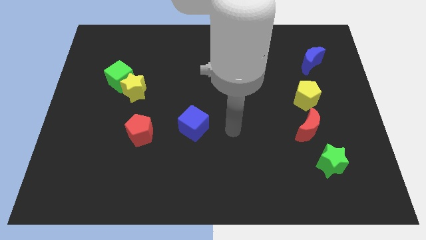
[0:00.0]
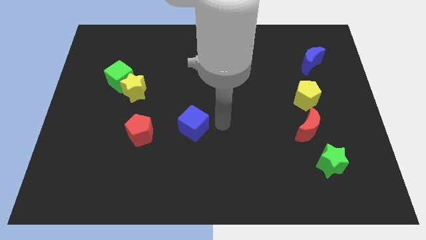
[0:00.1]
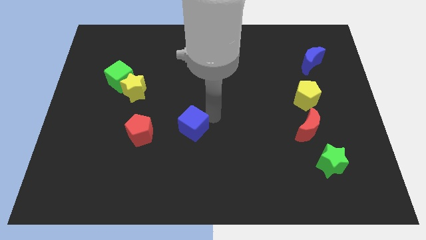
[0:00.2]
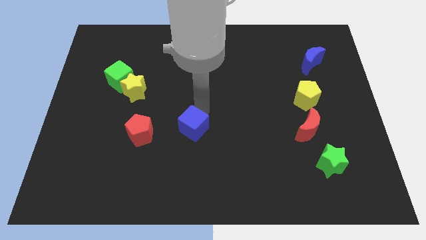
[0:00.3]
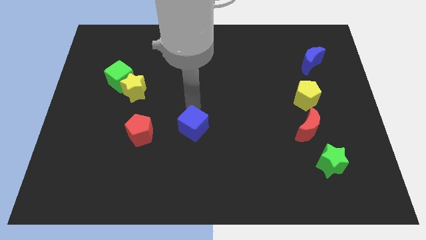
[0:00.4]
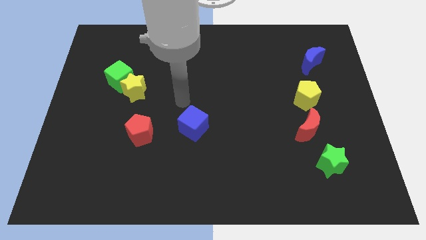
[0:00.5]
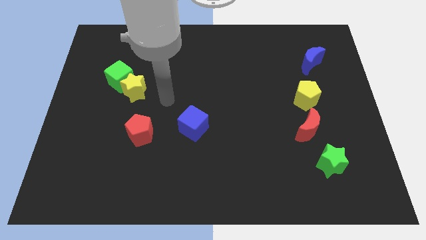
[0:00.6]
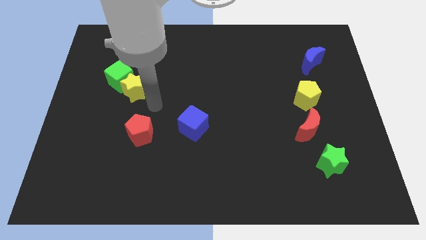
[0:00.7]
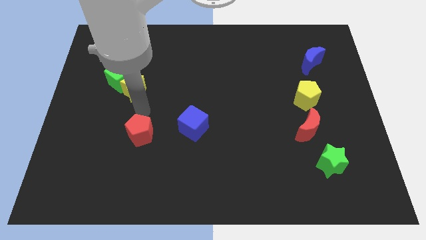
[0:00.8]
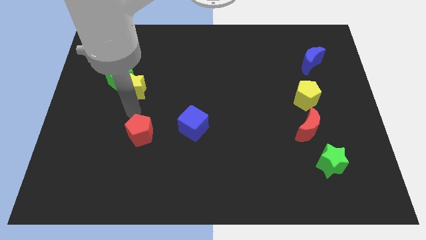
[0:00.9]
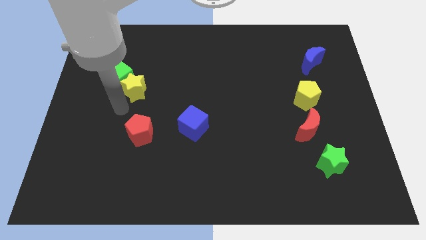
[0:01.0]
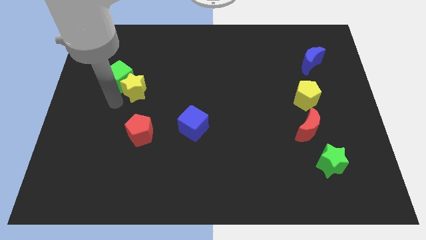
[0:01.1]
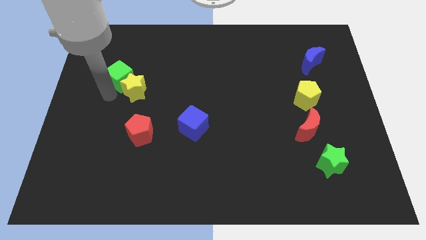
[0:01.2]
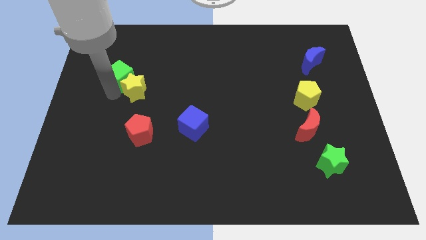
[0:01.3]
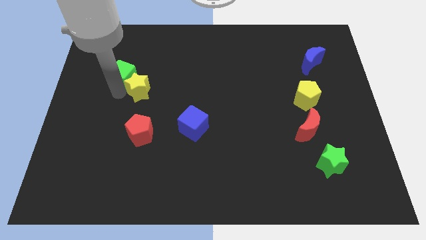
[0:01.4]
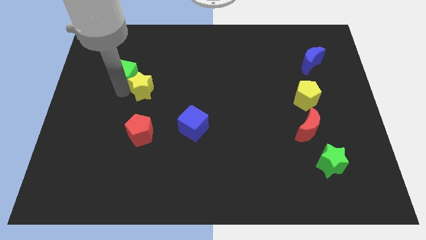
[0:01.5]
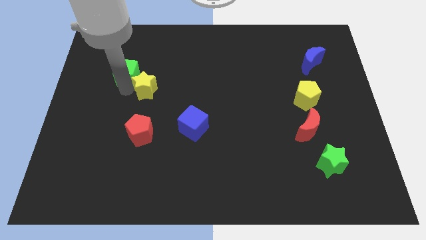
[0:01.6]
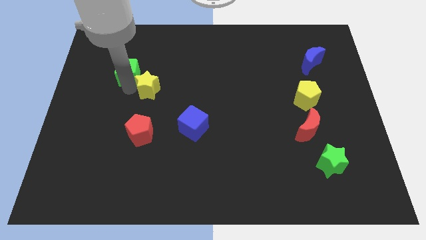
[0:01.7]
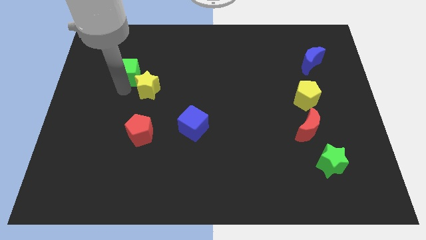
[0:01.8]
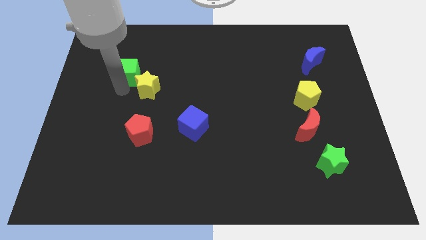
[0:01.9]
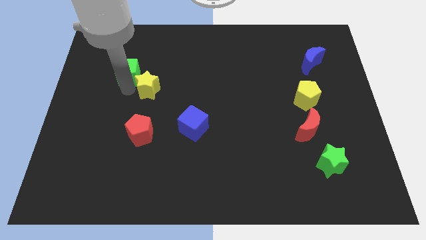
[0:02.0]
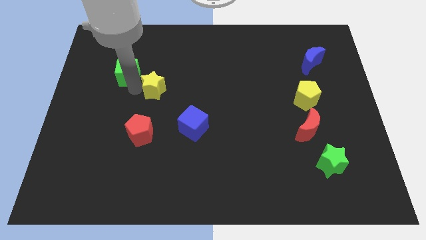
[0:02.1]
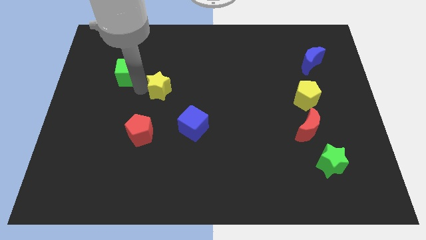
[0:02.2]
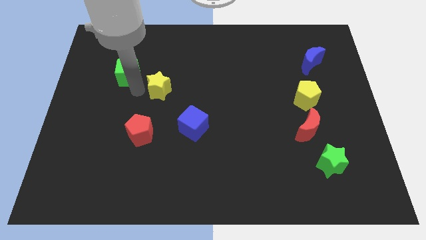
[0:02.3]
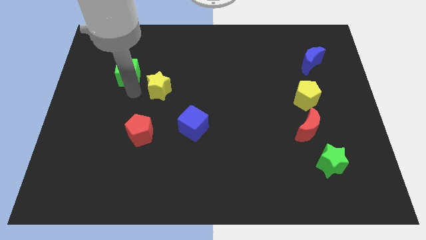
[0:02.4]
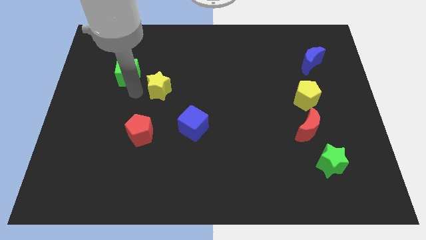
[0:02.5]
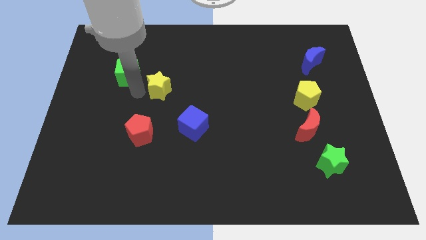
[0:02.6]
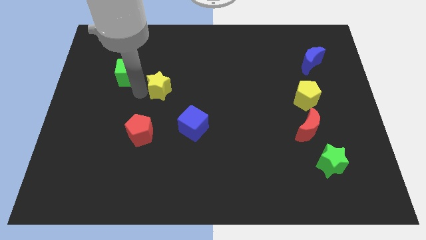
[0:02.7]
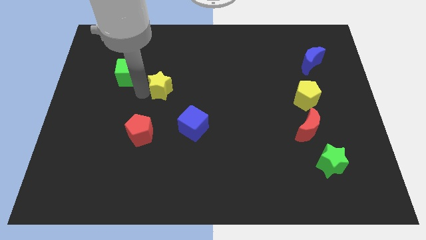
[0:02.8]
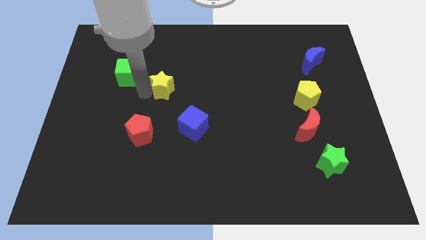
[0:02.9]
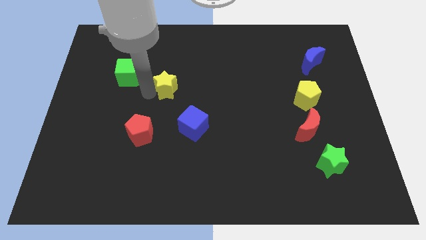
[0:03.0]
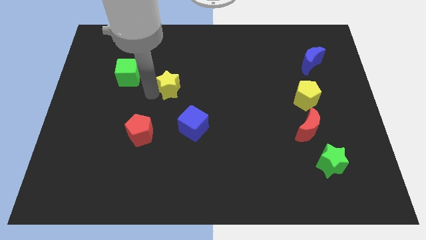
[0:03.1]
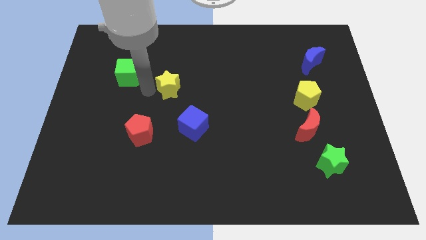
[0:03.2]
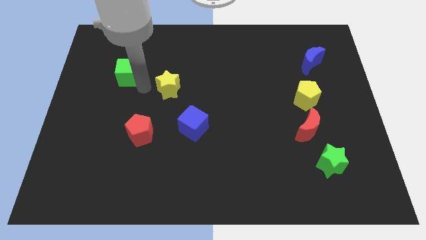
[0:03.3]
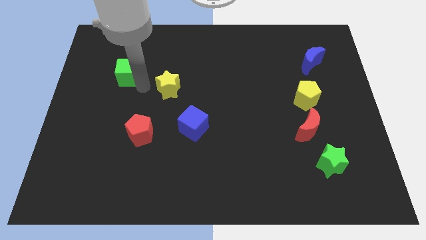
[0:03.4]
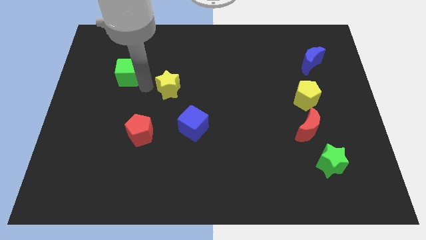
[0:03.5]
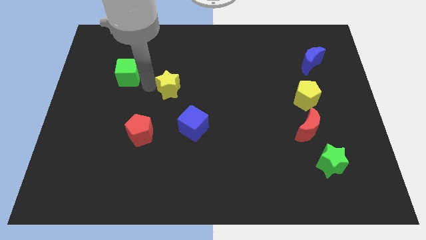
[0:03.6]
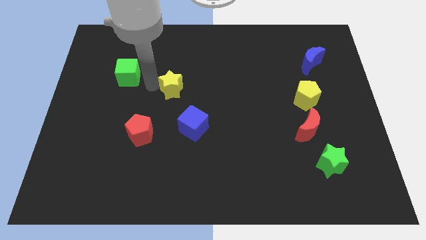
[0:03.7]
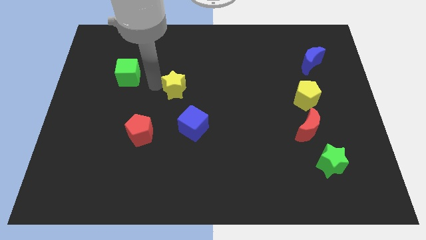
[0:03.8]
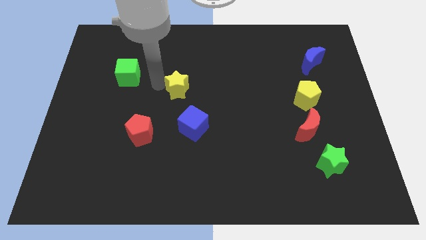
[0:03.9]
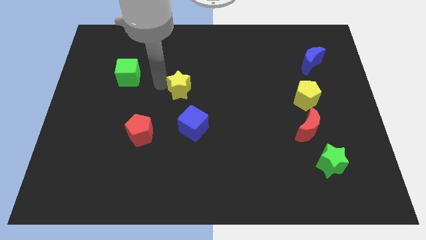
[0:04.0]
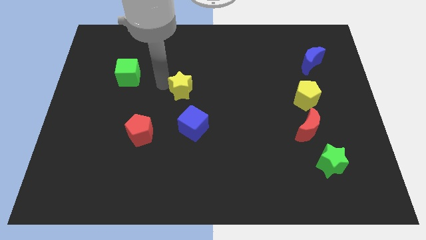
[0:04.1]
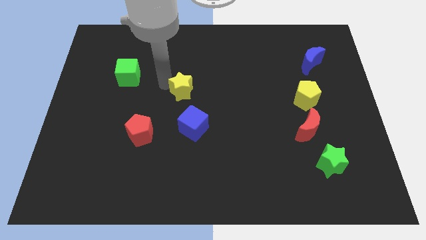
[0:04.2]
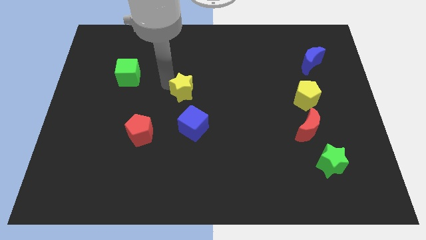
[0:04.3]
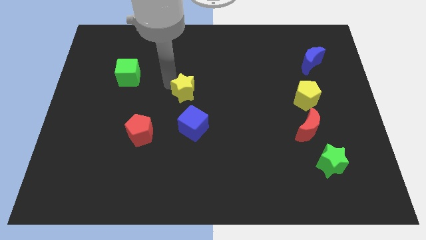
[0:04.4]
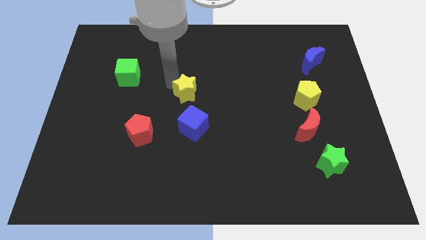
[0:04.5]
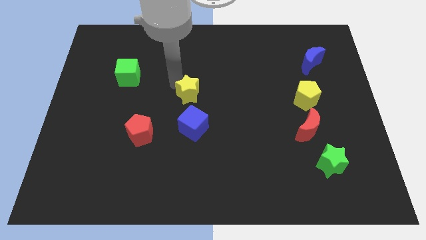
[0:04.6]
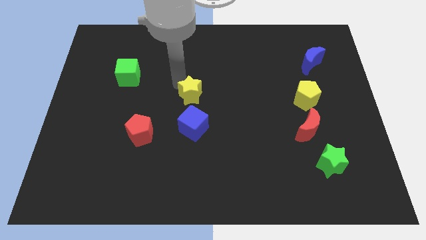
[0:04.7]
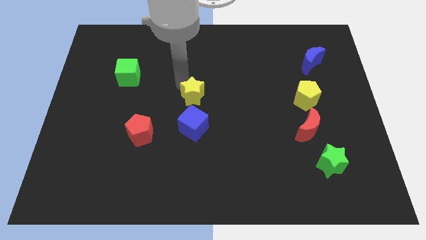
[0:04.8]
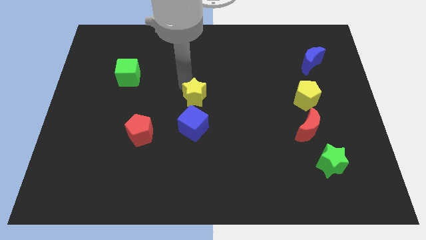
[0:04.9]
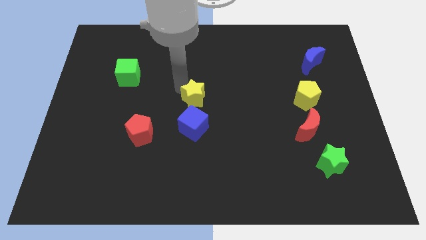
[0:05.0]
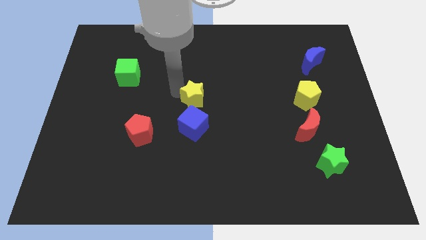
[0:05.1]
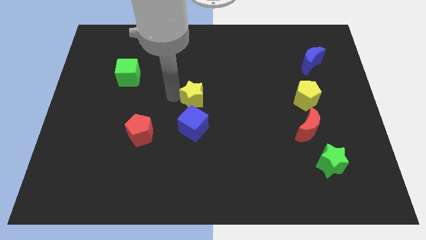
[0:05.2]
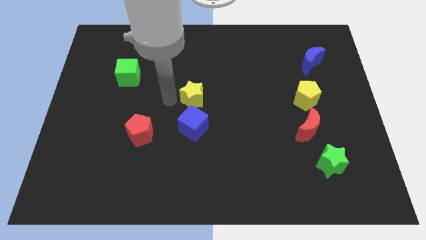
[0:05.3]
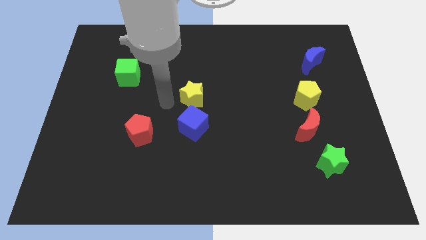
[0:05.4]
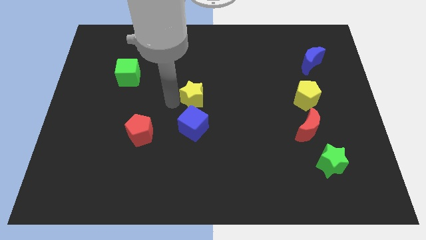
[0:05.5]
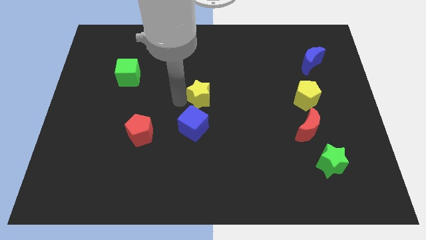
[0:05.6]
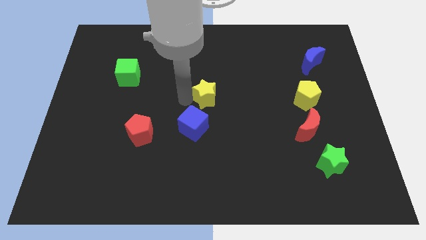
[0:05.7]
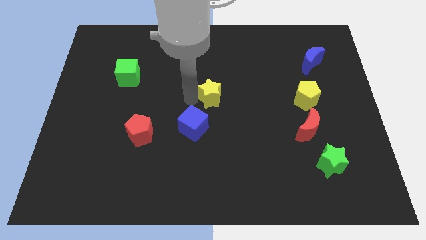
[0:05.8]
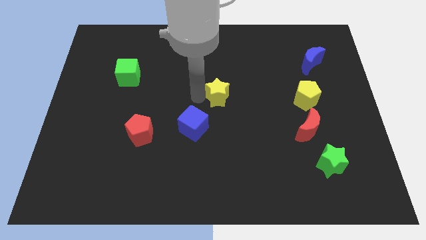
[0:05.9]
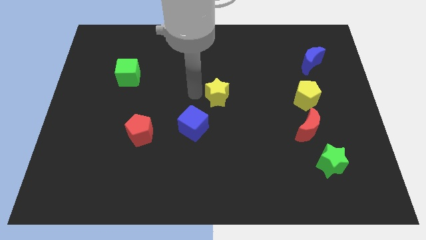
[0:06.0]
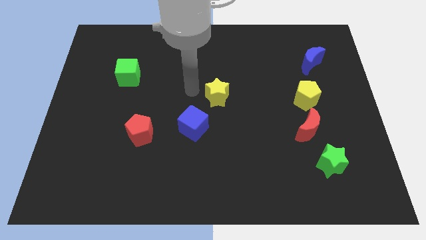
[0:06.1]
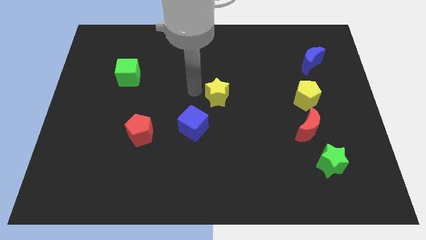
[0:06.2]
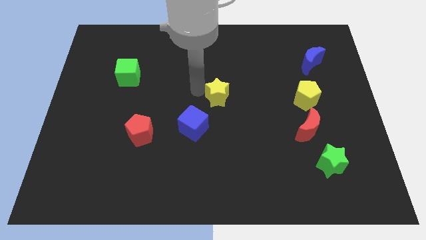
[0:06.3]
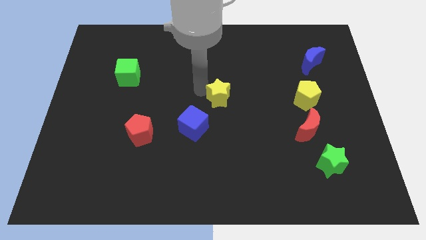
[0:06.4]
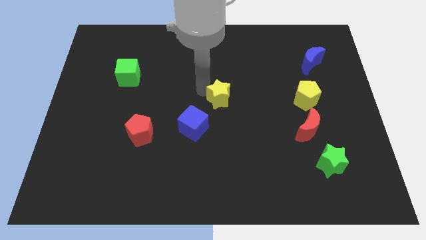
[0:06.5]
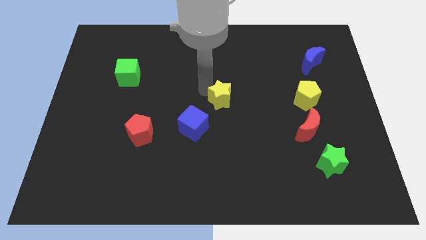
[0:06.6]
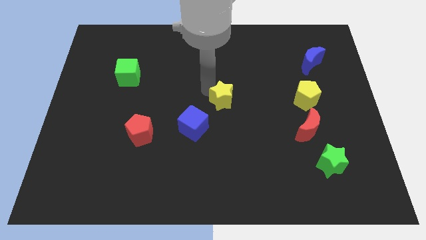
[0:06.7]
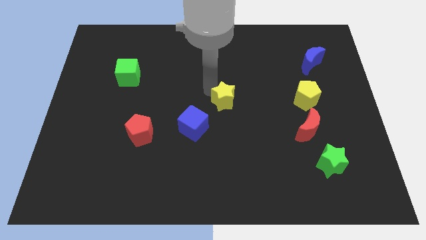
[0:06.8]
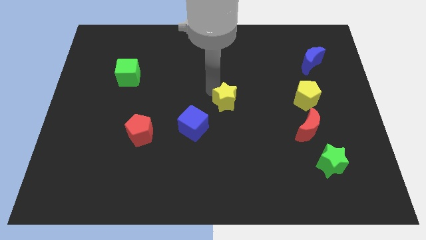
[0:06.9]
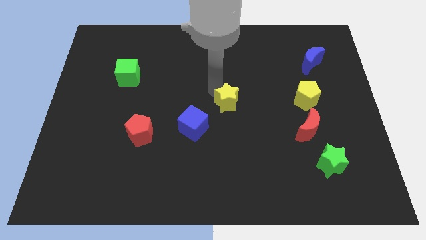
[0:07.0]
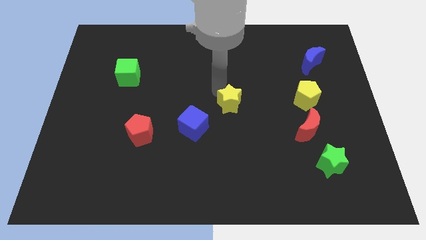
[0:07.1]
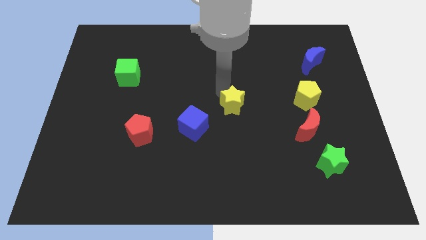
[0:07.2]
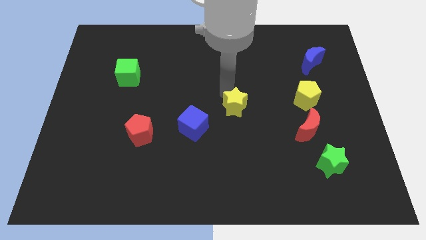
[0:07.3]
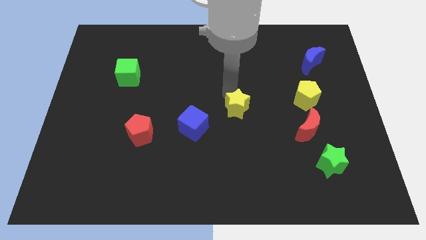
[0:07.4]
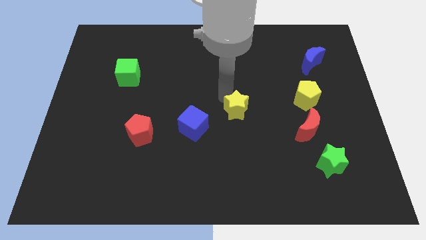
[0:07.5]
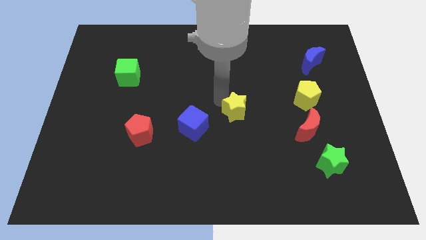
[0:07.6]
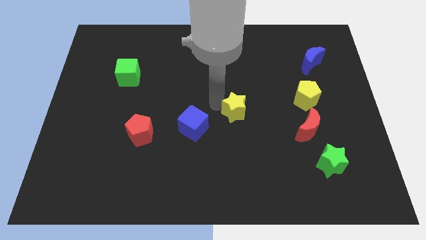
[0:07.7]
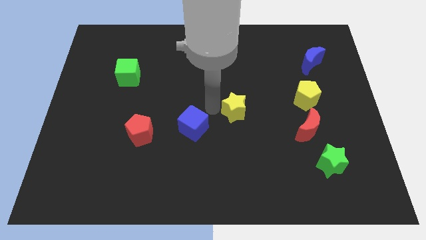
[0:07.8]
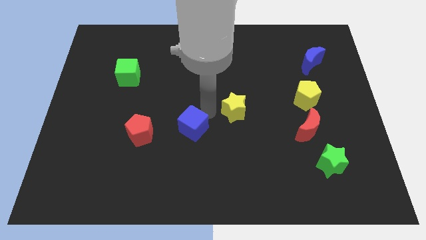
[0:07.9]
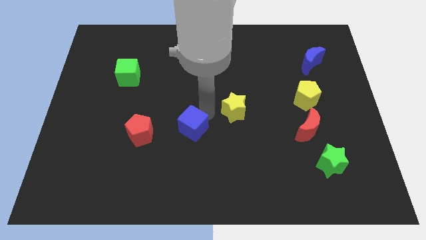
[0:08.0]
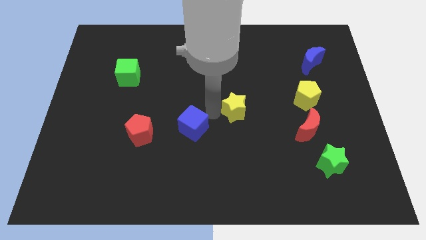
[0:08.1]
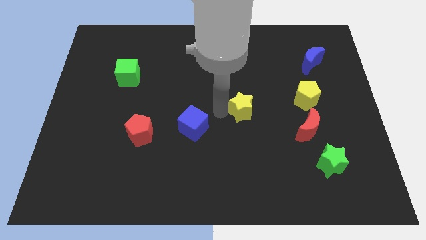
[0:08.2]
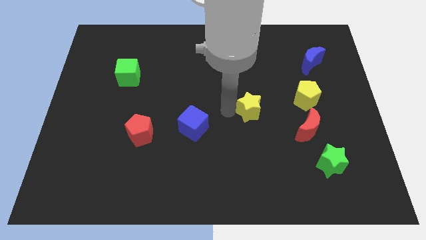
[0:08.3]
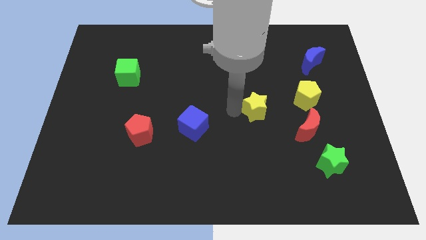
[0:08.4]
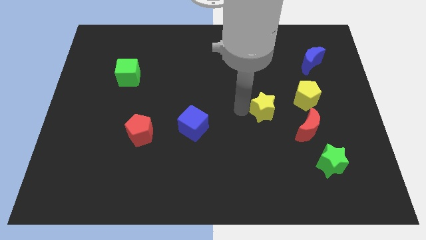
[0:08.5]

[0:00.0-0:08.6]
move the yellow star to the top left side of the red moon
